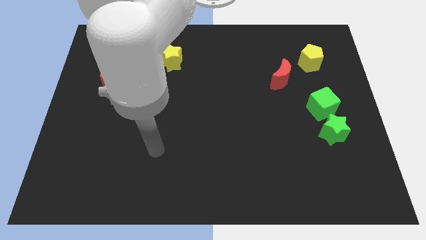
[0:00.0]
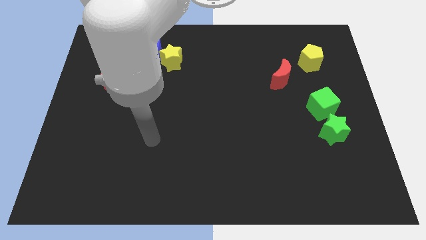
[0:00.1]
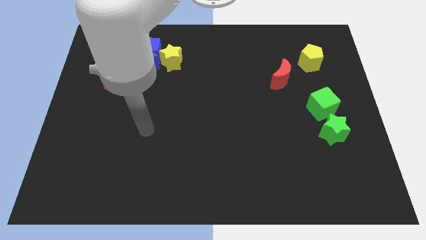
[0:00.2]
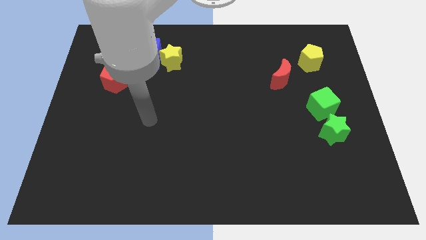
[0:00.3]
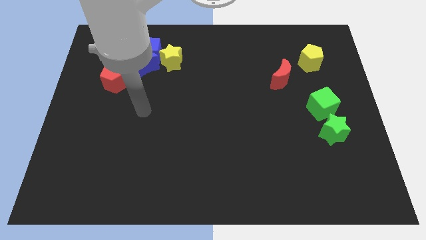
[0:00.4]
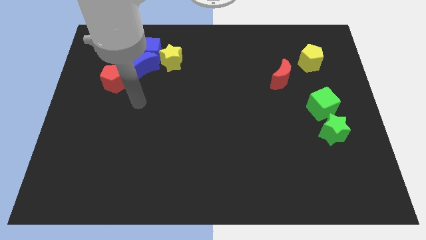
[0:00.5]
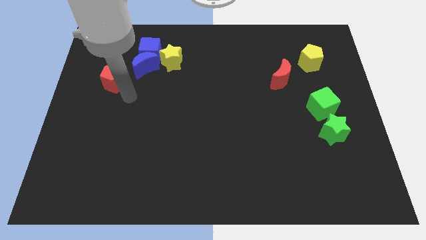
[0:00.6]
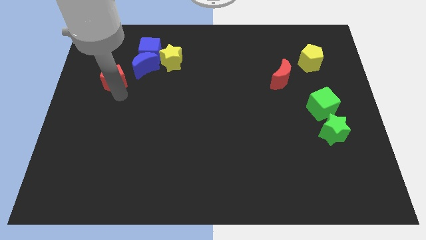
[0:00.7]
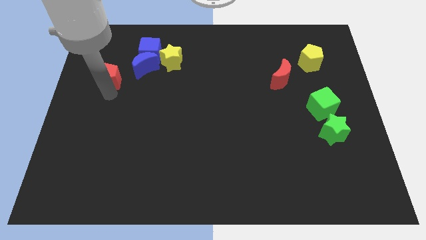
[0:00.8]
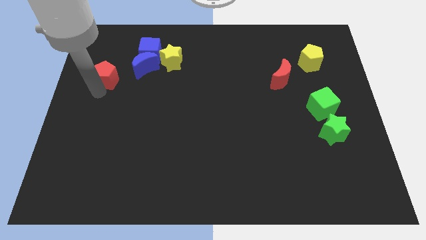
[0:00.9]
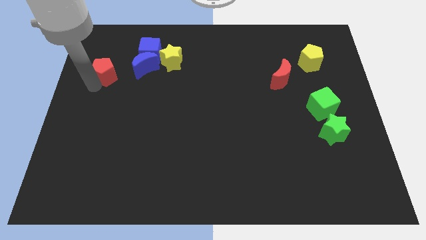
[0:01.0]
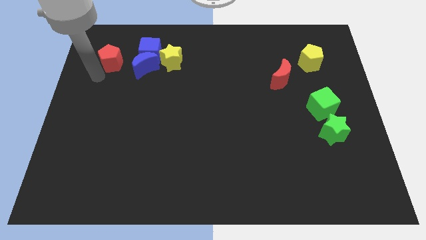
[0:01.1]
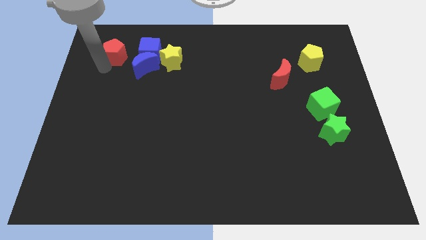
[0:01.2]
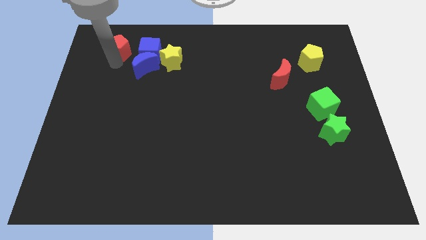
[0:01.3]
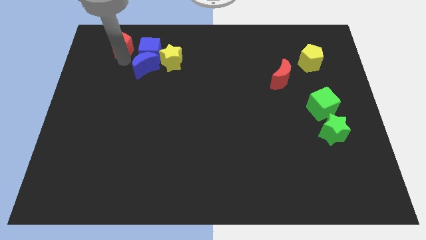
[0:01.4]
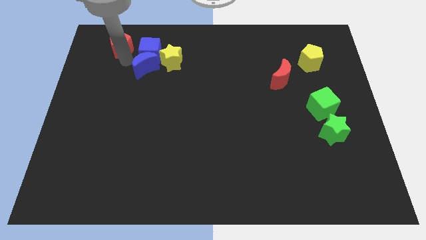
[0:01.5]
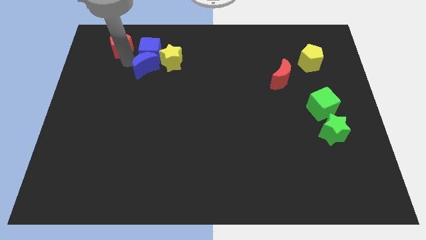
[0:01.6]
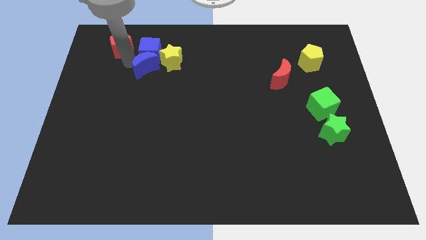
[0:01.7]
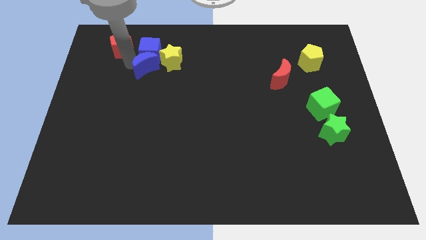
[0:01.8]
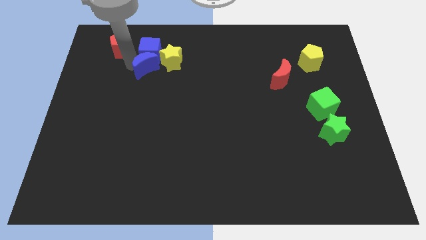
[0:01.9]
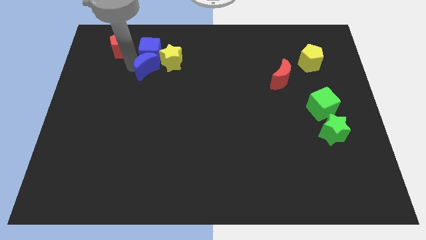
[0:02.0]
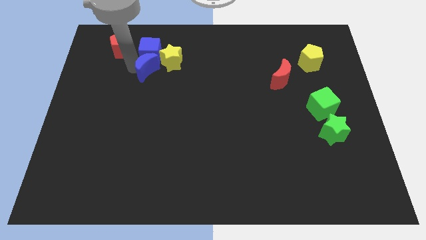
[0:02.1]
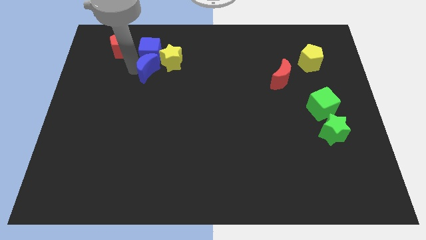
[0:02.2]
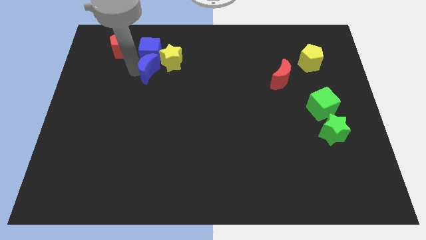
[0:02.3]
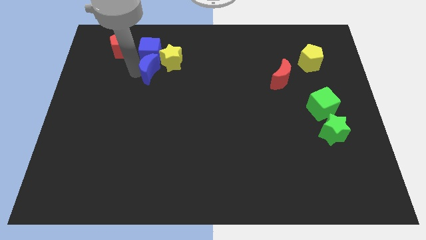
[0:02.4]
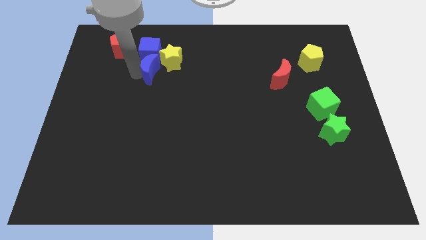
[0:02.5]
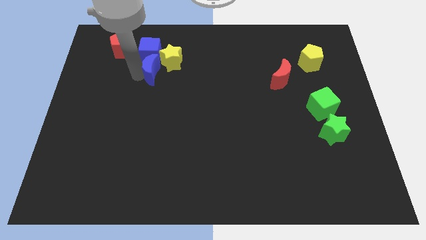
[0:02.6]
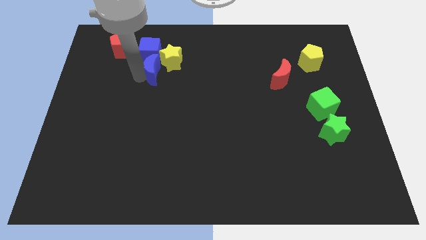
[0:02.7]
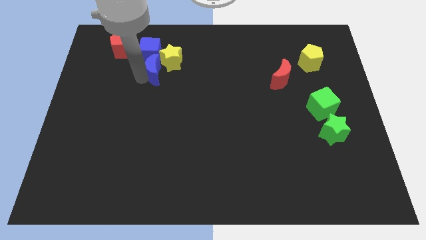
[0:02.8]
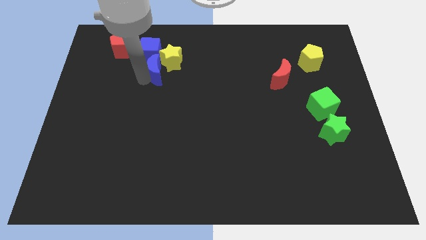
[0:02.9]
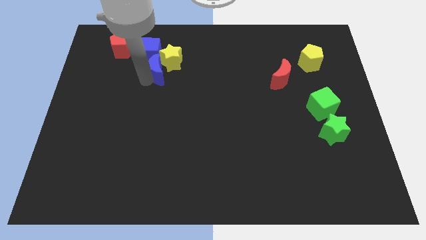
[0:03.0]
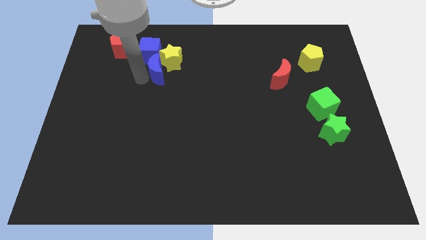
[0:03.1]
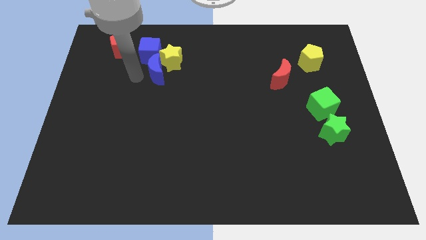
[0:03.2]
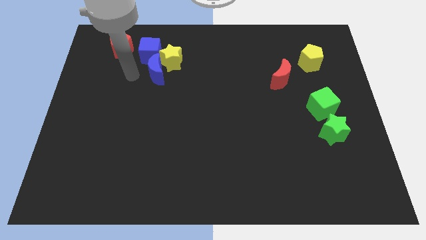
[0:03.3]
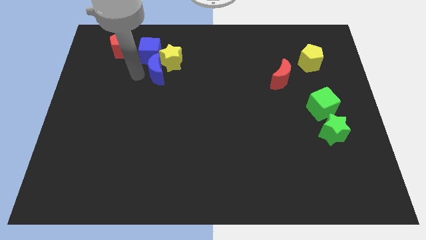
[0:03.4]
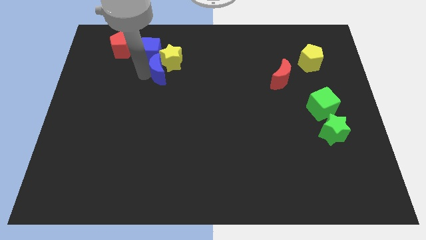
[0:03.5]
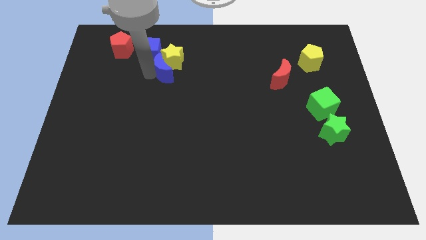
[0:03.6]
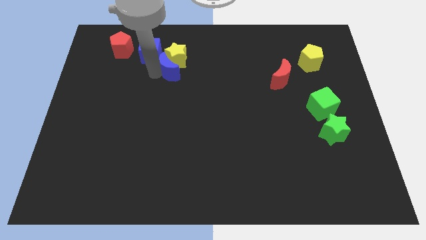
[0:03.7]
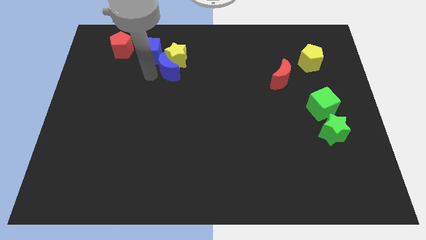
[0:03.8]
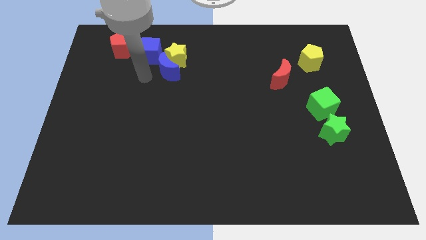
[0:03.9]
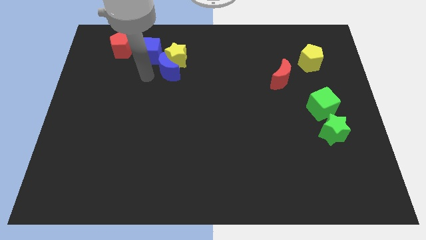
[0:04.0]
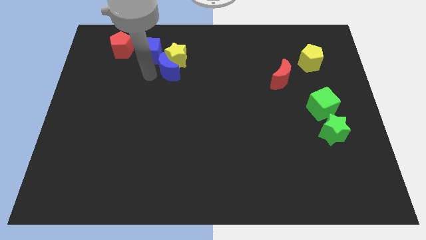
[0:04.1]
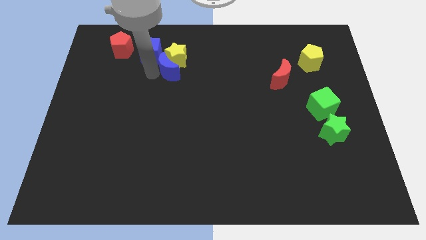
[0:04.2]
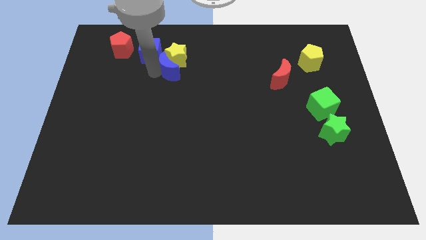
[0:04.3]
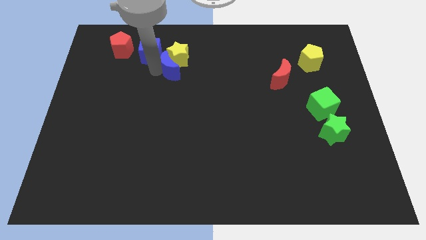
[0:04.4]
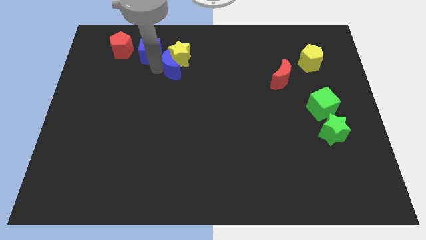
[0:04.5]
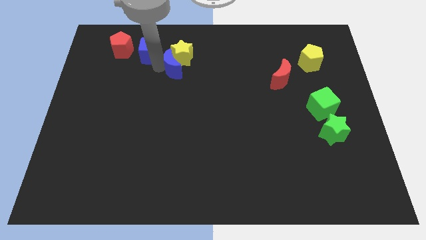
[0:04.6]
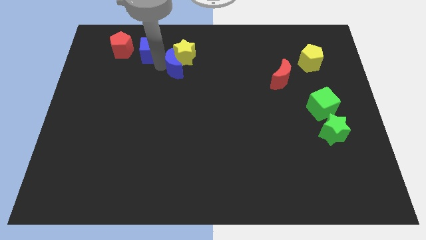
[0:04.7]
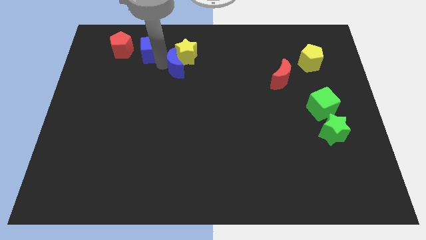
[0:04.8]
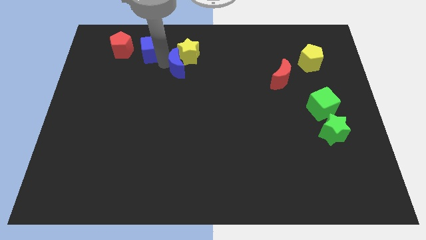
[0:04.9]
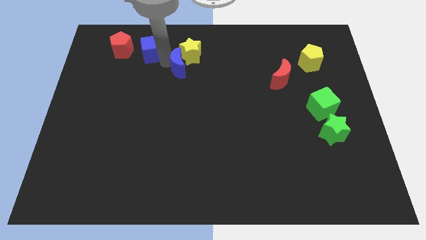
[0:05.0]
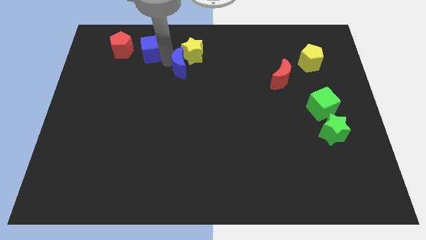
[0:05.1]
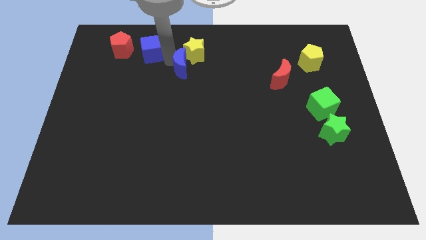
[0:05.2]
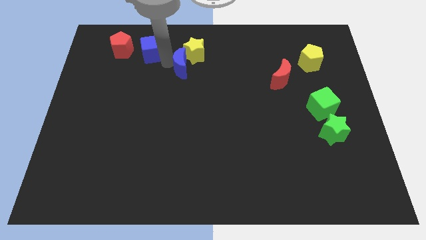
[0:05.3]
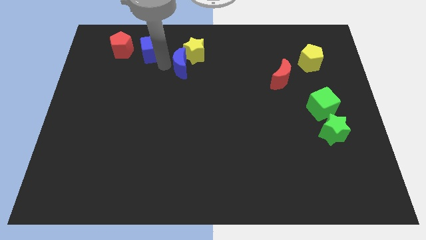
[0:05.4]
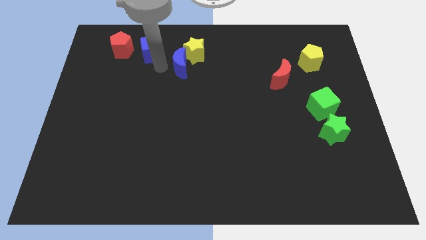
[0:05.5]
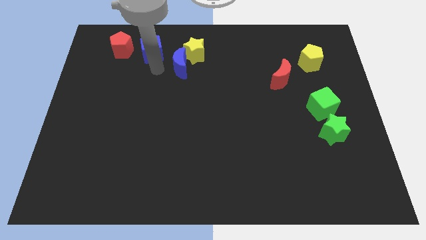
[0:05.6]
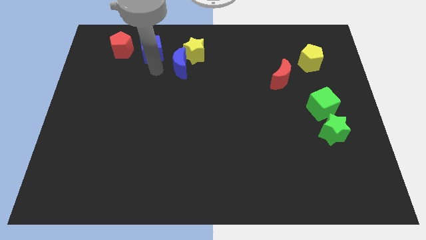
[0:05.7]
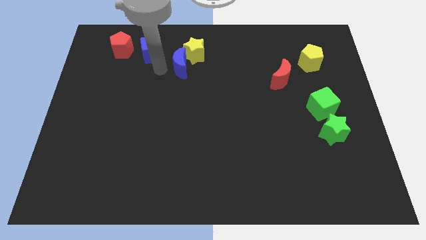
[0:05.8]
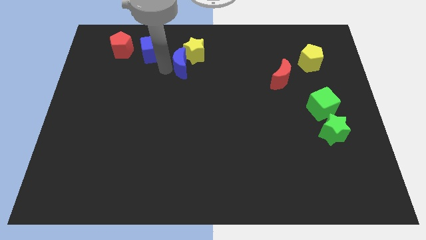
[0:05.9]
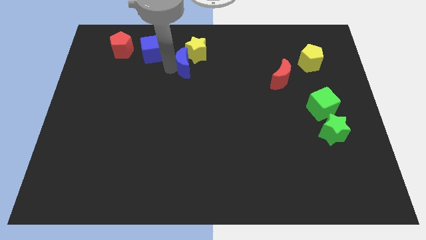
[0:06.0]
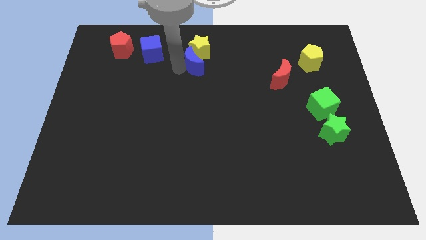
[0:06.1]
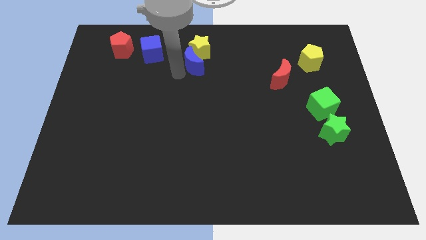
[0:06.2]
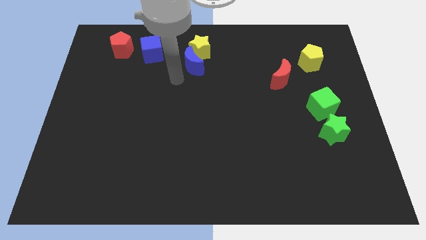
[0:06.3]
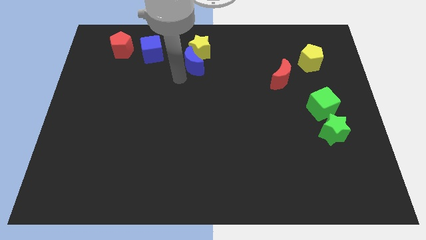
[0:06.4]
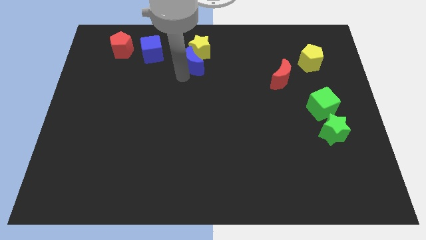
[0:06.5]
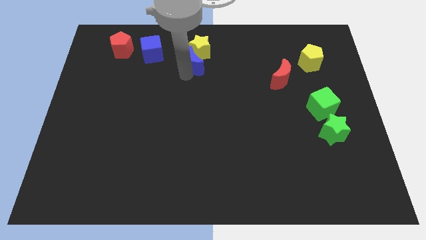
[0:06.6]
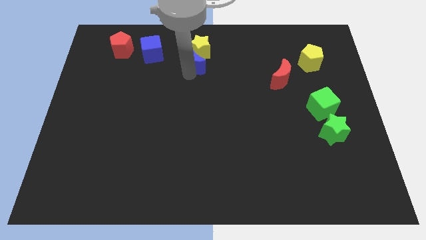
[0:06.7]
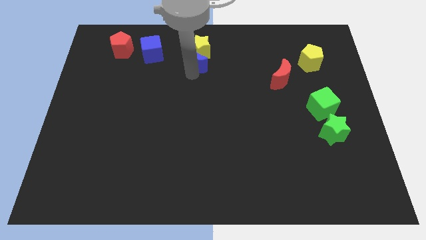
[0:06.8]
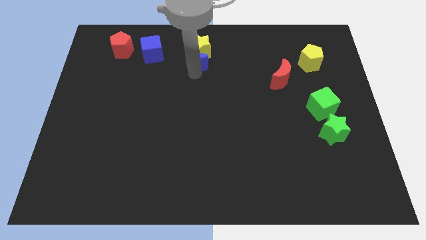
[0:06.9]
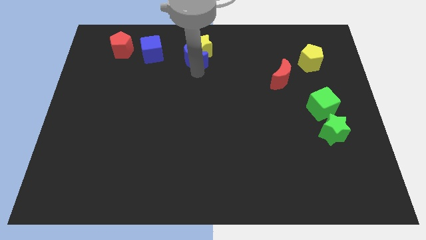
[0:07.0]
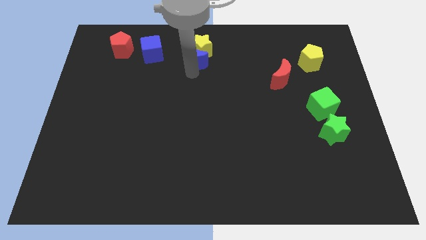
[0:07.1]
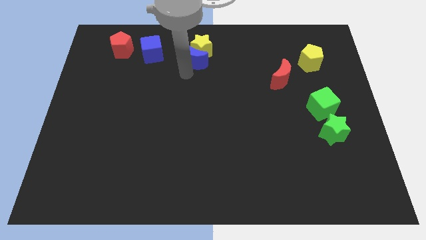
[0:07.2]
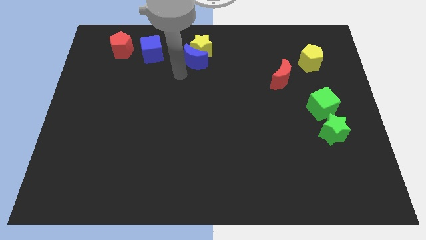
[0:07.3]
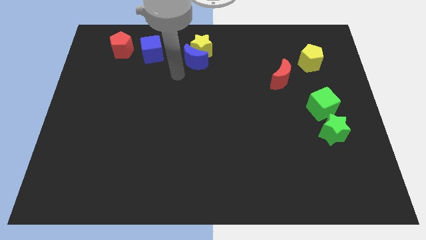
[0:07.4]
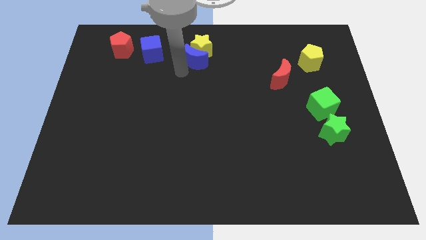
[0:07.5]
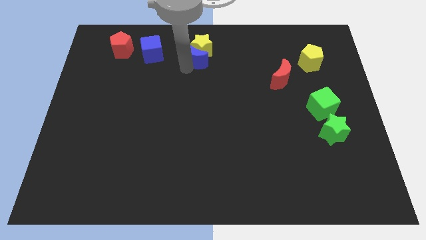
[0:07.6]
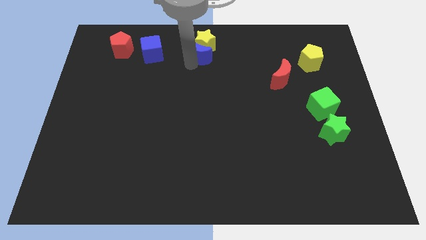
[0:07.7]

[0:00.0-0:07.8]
put the blue moon to the top side
